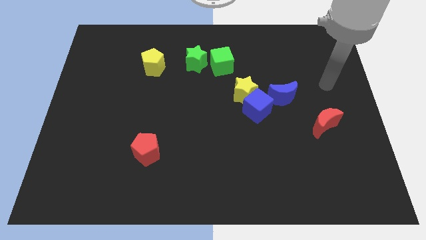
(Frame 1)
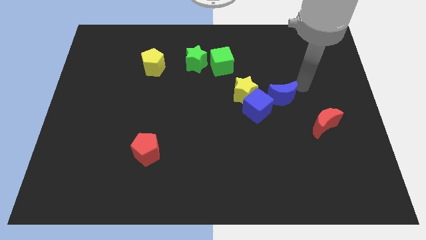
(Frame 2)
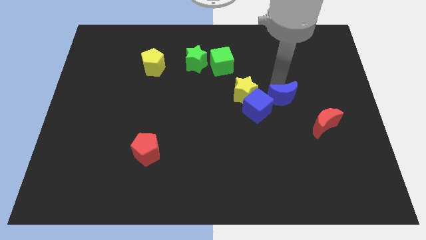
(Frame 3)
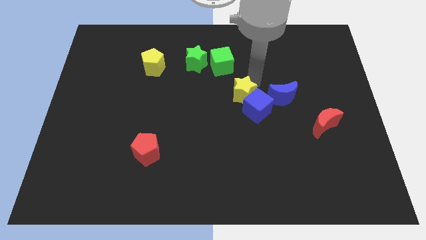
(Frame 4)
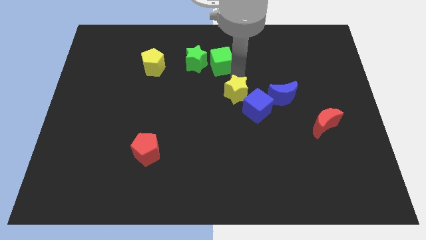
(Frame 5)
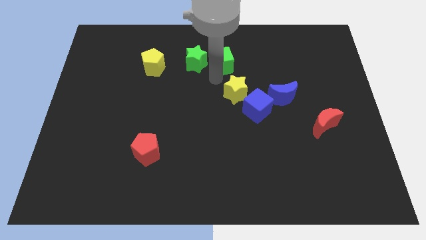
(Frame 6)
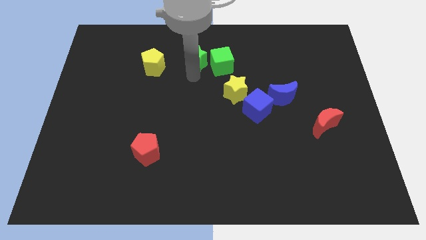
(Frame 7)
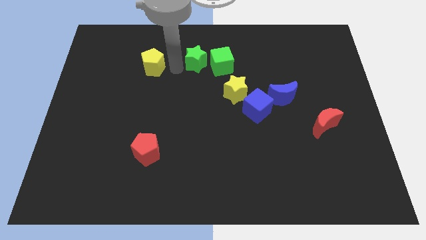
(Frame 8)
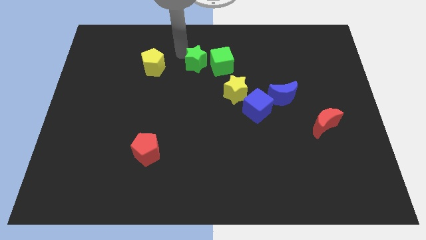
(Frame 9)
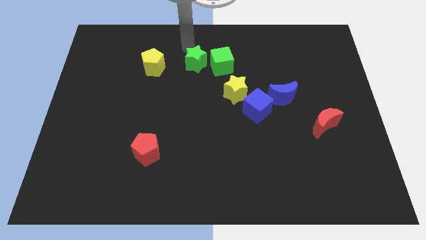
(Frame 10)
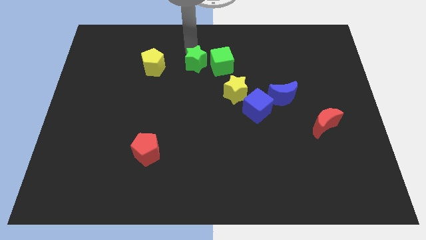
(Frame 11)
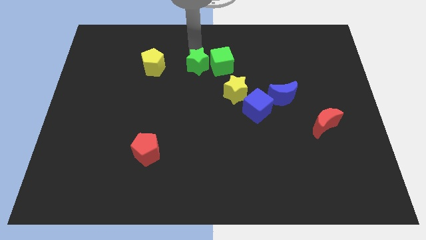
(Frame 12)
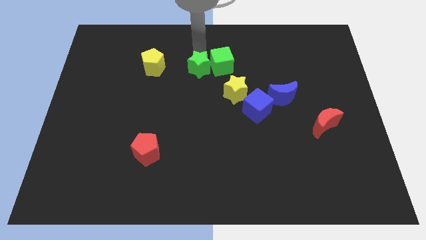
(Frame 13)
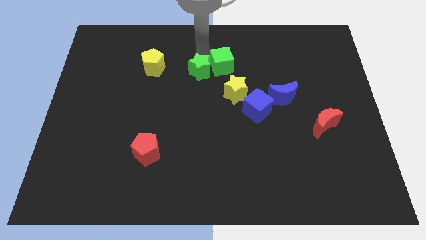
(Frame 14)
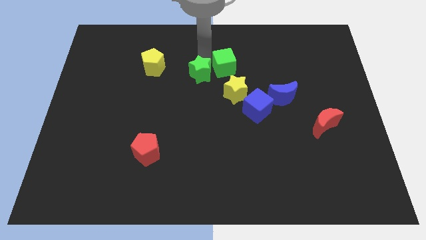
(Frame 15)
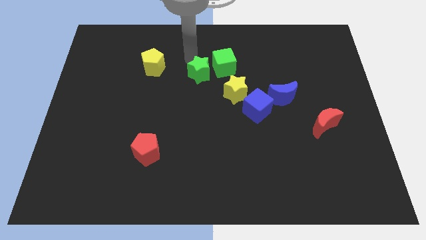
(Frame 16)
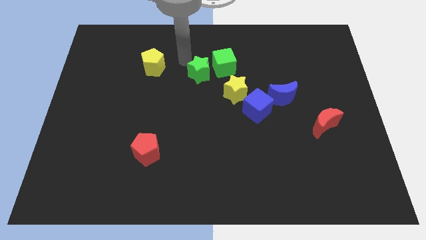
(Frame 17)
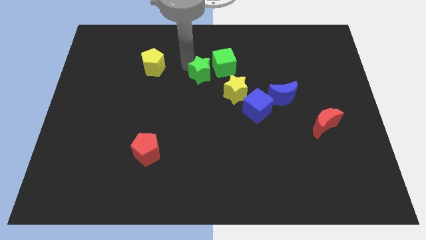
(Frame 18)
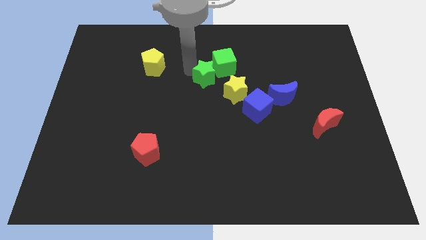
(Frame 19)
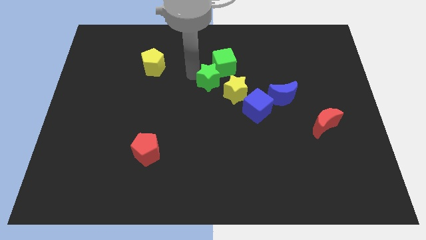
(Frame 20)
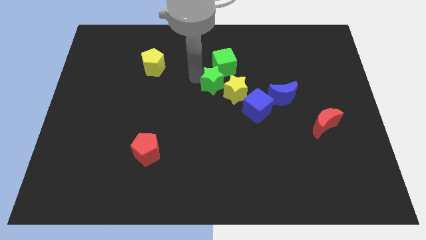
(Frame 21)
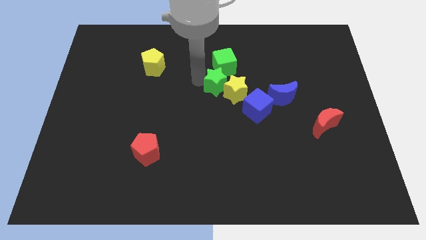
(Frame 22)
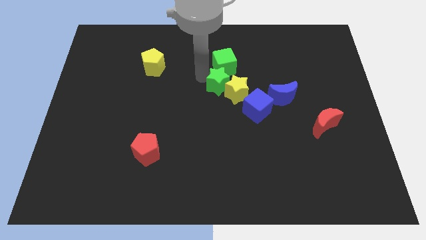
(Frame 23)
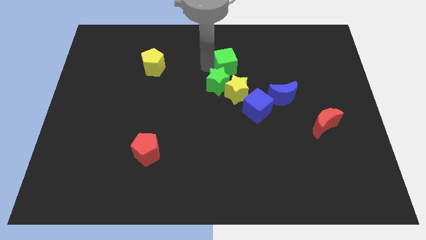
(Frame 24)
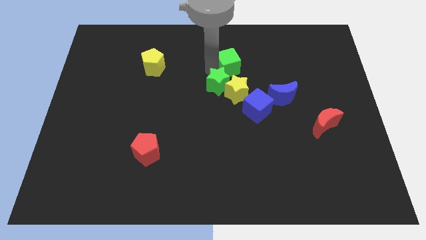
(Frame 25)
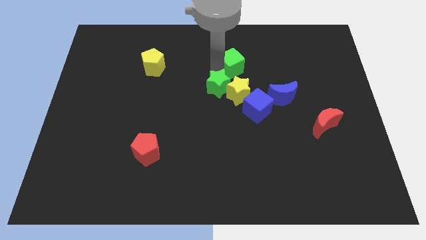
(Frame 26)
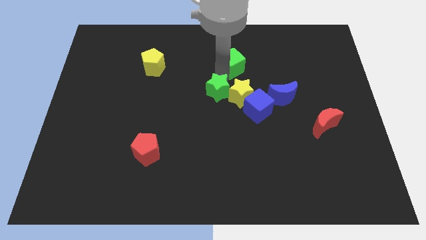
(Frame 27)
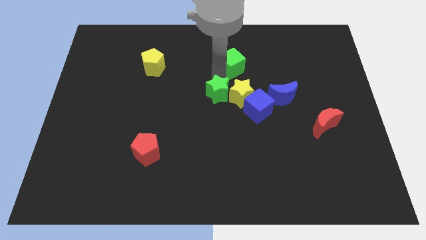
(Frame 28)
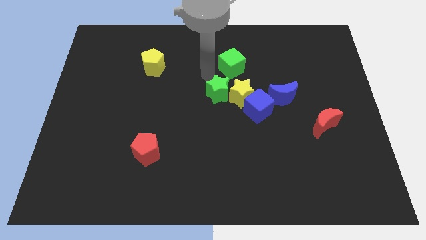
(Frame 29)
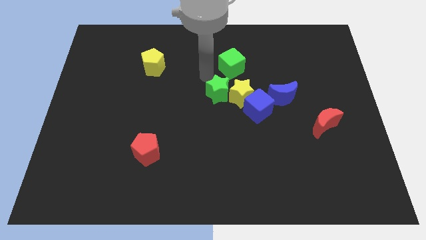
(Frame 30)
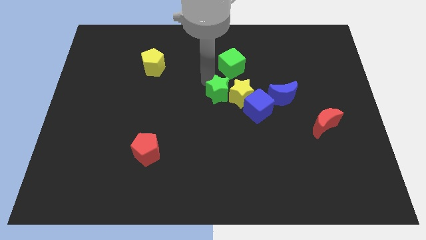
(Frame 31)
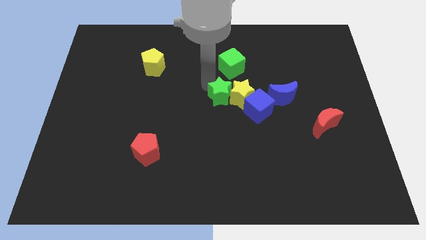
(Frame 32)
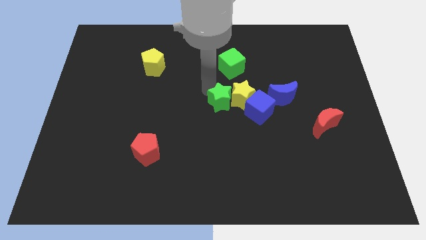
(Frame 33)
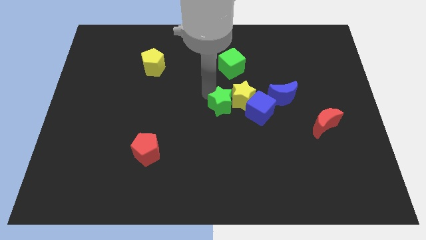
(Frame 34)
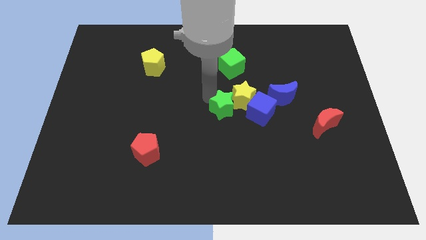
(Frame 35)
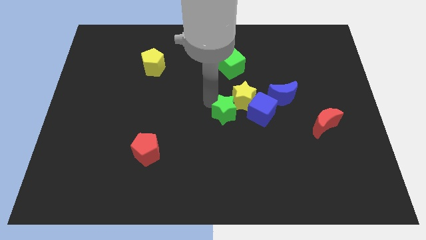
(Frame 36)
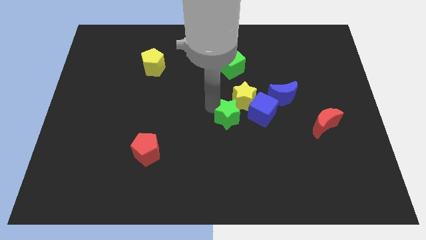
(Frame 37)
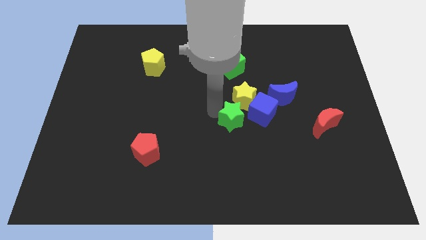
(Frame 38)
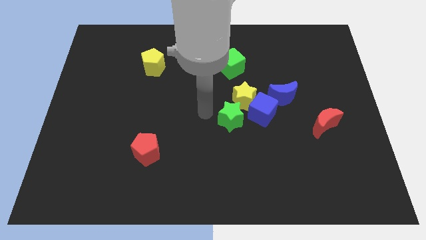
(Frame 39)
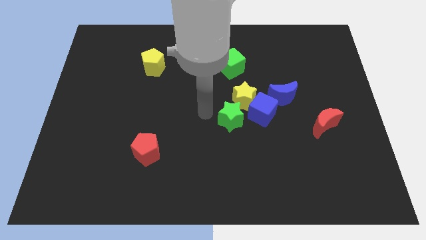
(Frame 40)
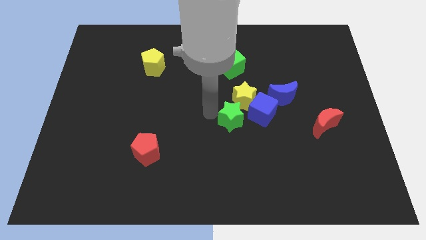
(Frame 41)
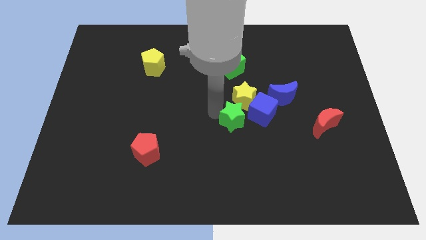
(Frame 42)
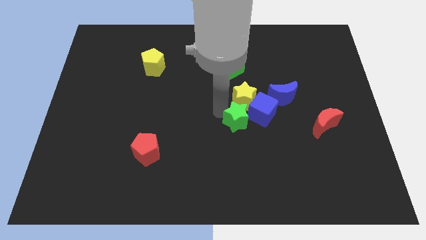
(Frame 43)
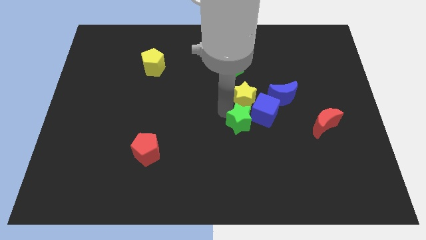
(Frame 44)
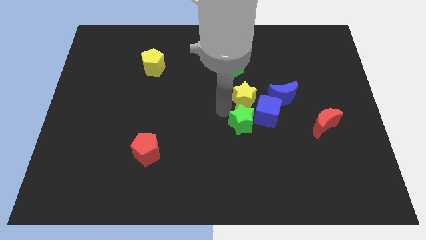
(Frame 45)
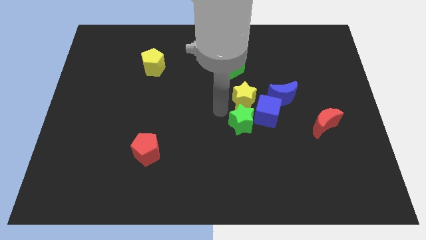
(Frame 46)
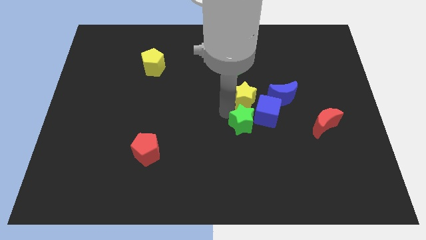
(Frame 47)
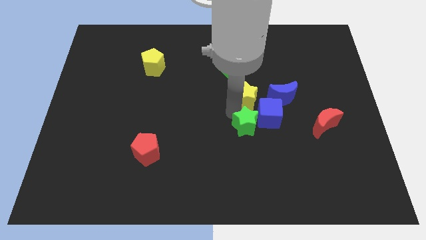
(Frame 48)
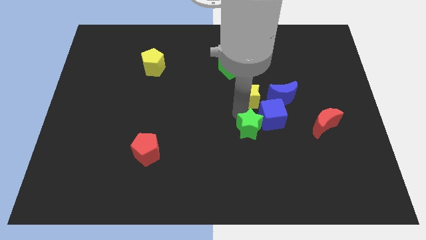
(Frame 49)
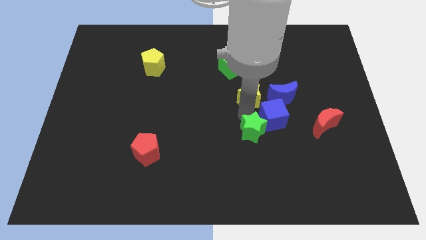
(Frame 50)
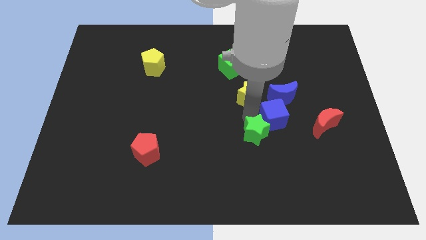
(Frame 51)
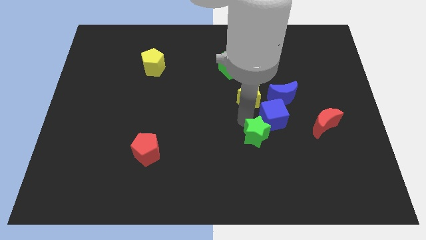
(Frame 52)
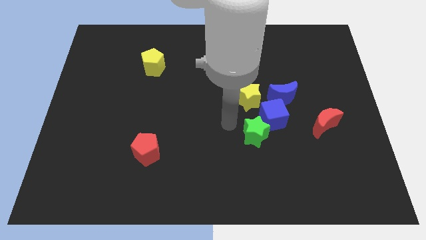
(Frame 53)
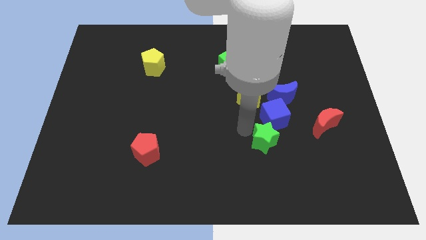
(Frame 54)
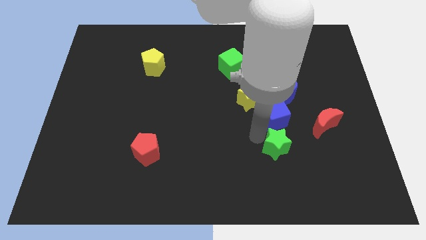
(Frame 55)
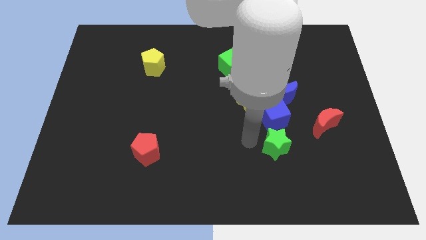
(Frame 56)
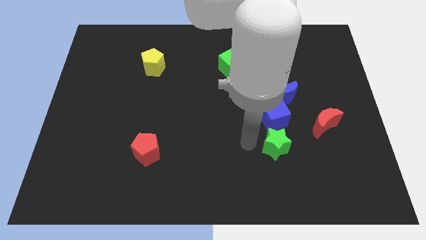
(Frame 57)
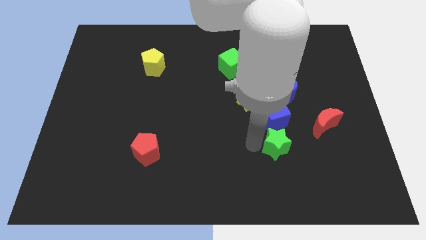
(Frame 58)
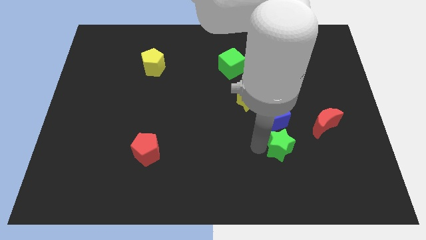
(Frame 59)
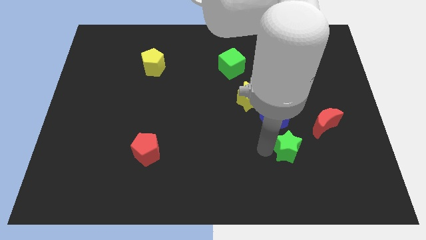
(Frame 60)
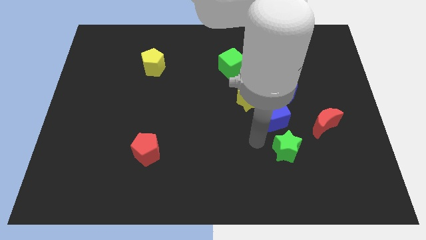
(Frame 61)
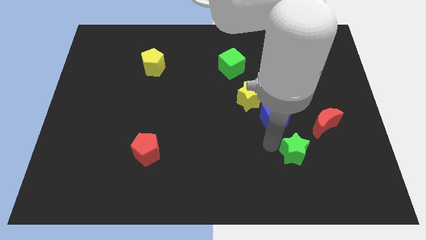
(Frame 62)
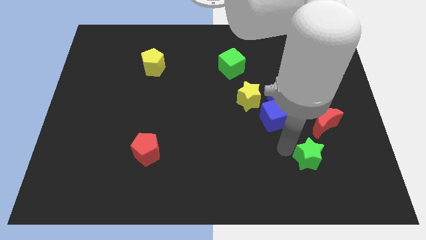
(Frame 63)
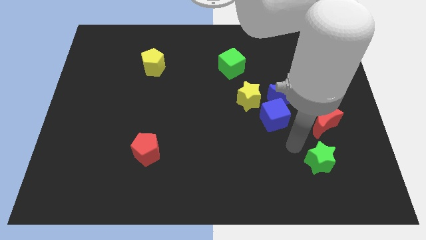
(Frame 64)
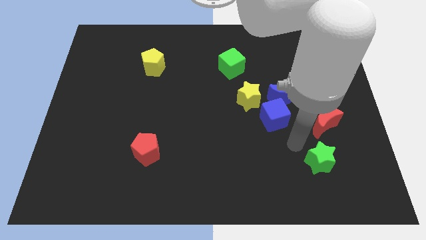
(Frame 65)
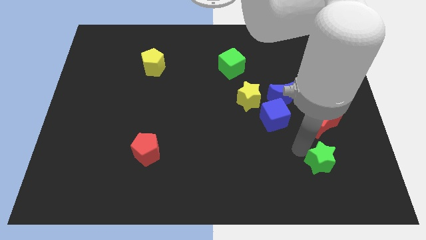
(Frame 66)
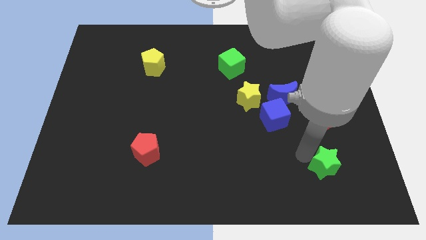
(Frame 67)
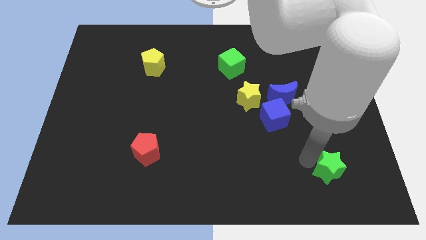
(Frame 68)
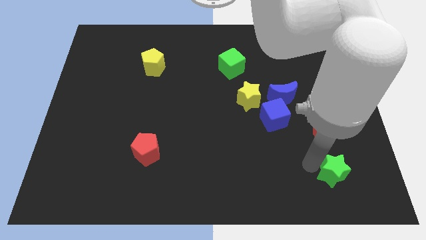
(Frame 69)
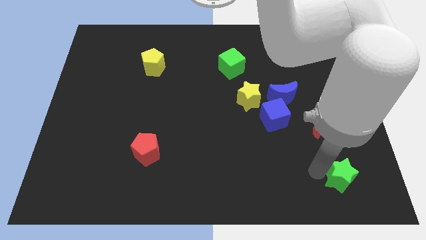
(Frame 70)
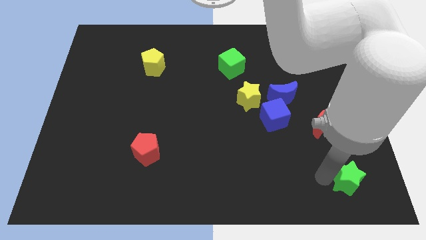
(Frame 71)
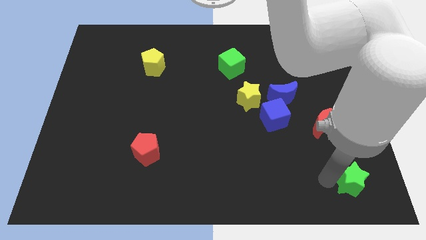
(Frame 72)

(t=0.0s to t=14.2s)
move the green star to the bottom right corner
